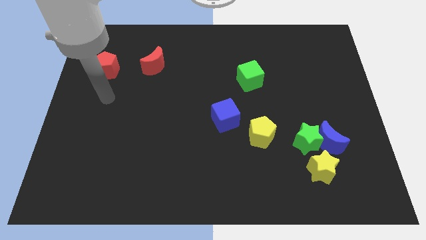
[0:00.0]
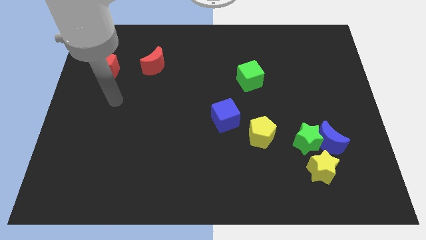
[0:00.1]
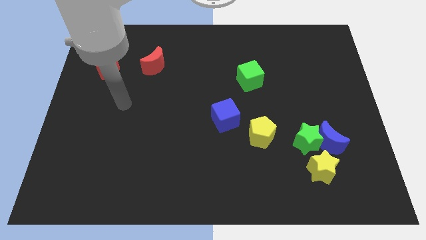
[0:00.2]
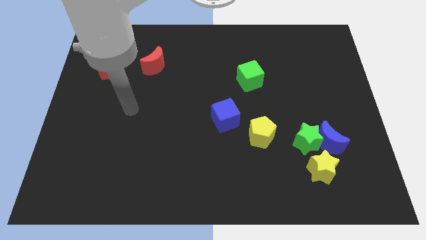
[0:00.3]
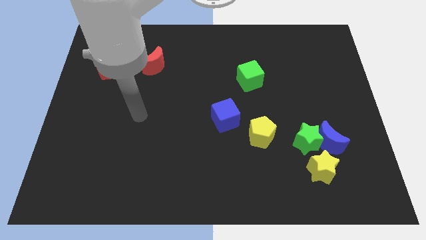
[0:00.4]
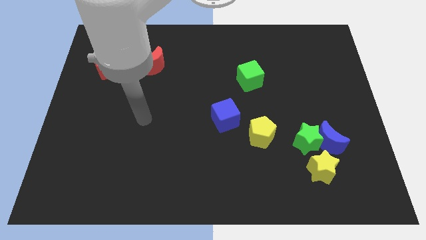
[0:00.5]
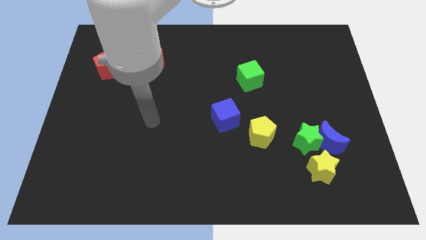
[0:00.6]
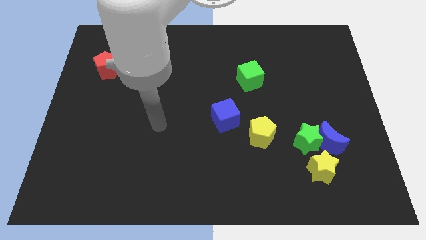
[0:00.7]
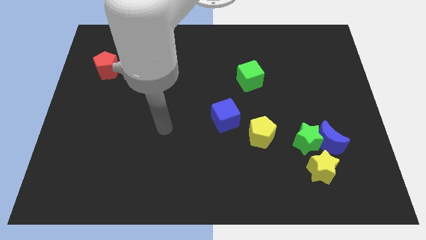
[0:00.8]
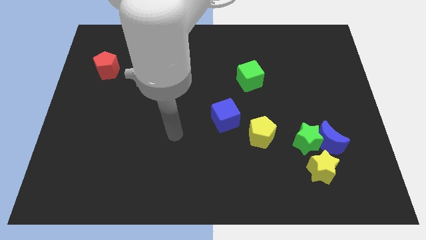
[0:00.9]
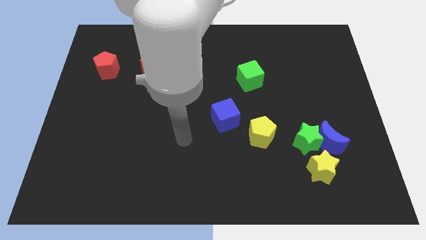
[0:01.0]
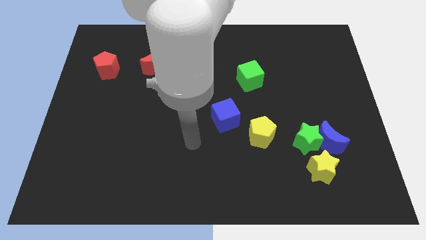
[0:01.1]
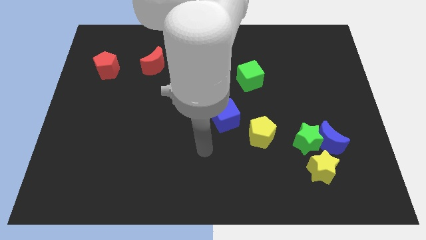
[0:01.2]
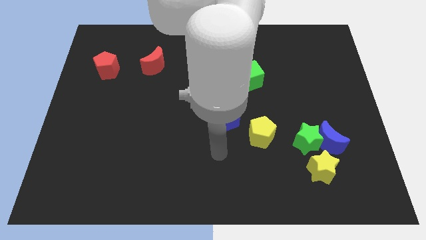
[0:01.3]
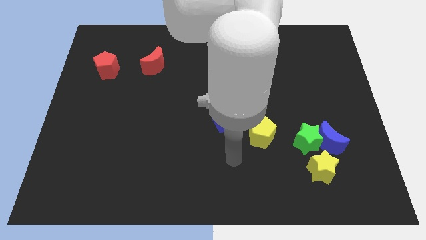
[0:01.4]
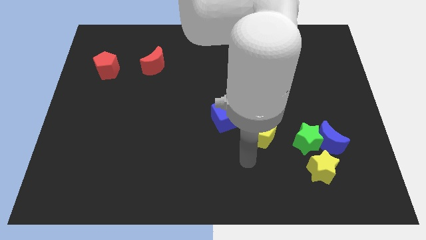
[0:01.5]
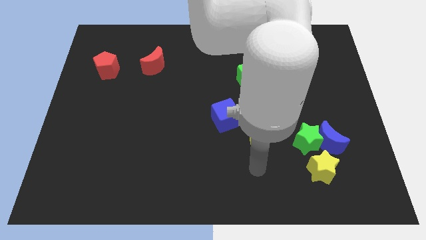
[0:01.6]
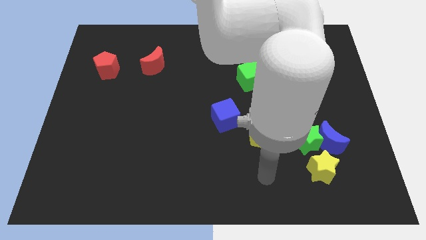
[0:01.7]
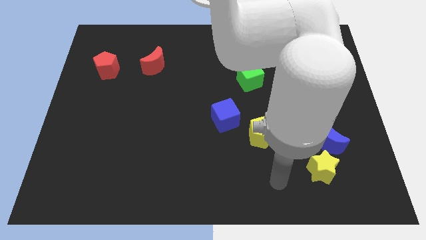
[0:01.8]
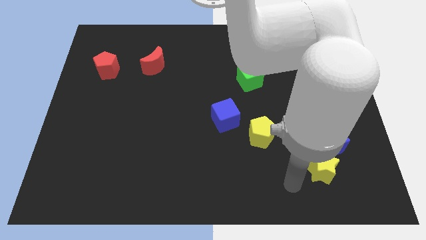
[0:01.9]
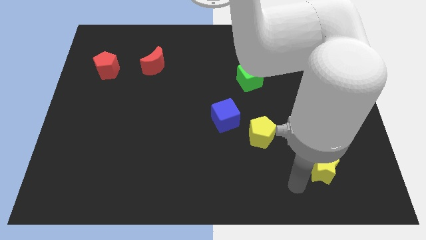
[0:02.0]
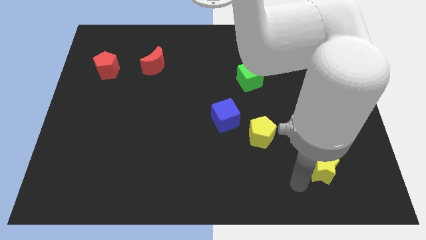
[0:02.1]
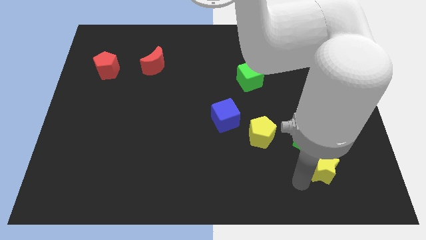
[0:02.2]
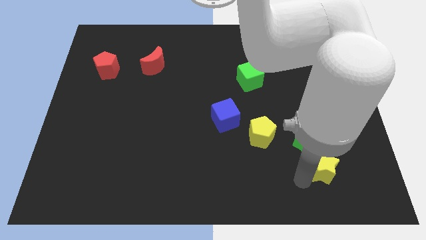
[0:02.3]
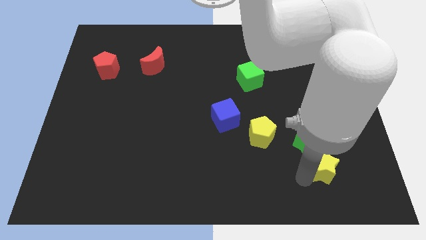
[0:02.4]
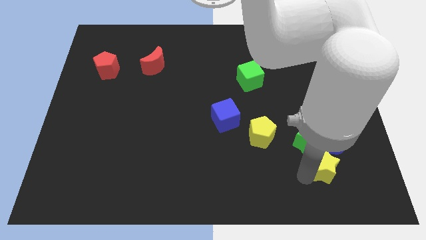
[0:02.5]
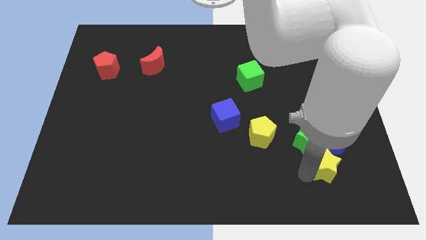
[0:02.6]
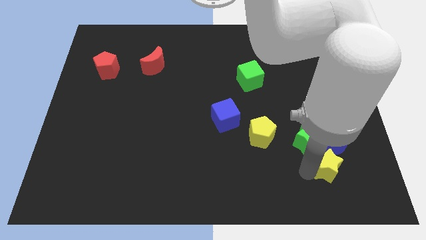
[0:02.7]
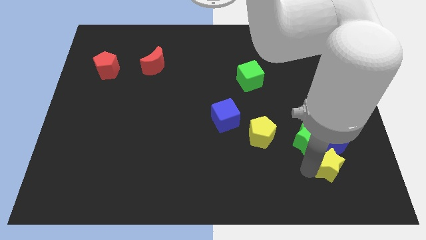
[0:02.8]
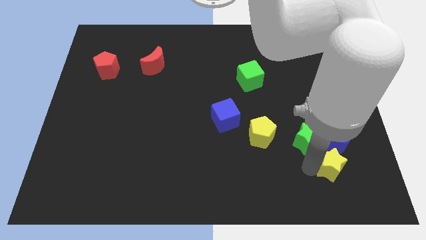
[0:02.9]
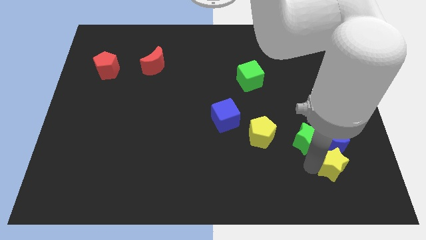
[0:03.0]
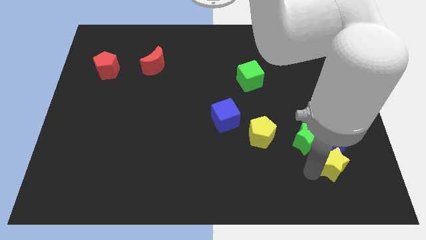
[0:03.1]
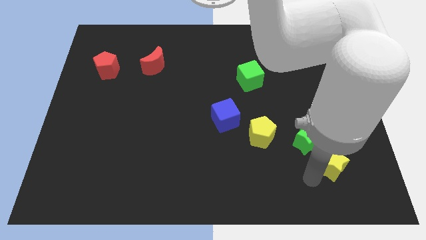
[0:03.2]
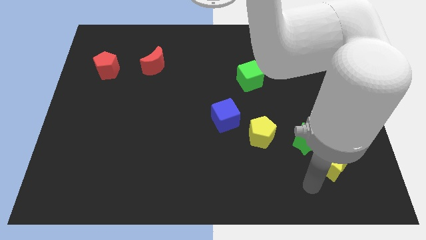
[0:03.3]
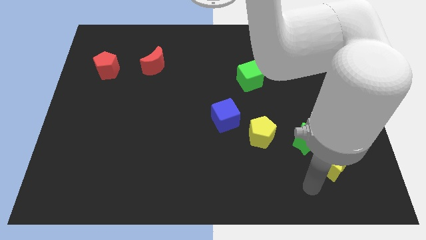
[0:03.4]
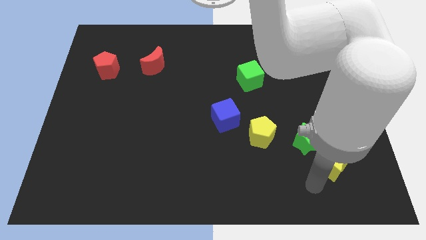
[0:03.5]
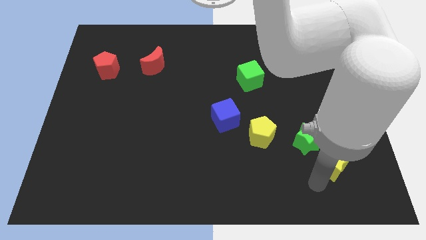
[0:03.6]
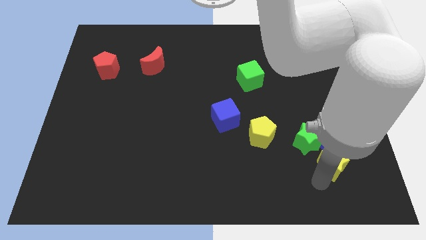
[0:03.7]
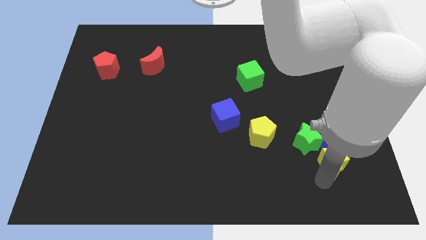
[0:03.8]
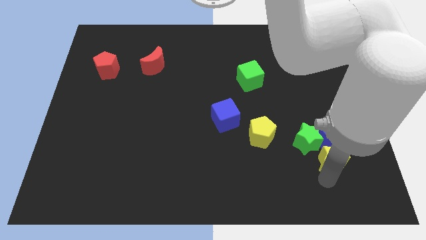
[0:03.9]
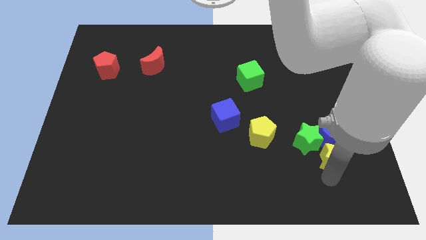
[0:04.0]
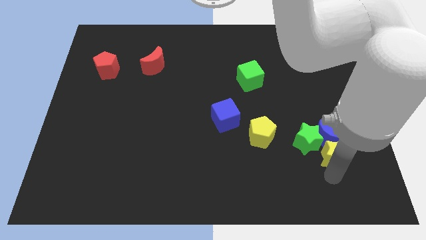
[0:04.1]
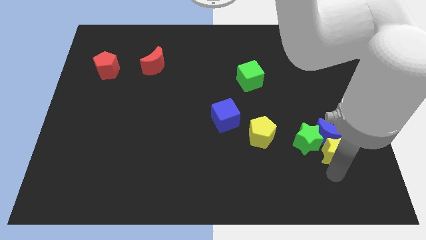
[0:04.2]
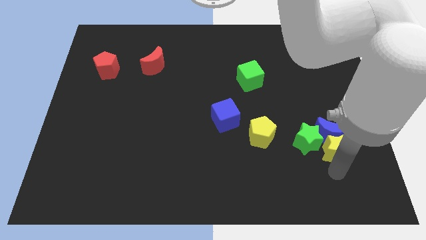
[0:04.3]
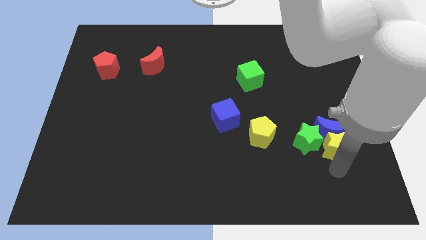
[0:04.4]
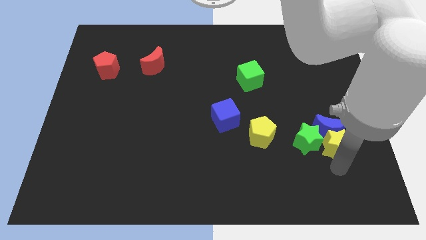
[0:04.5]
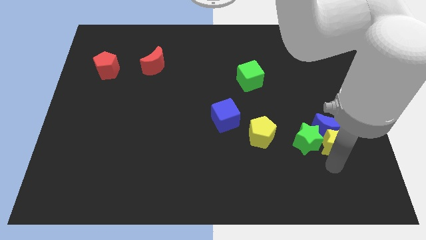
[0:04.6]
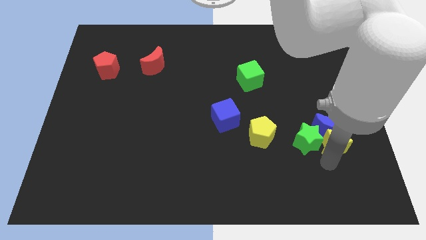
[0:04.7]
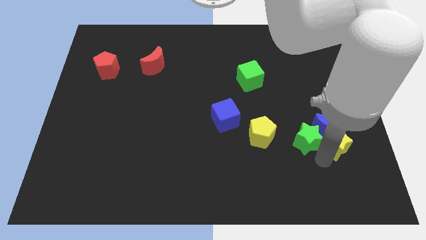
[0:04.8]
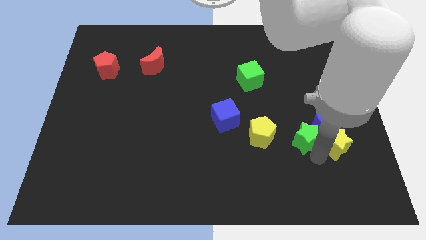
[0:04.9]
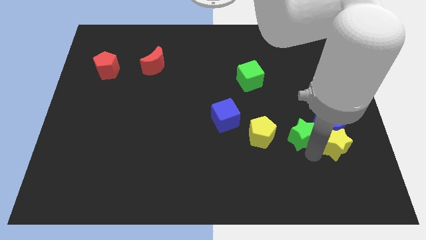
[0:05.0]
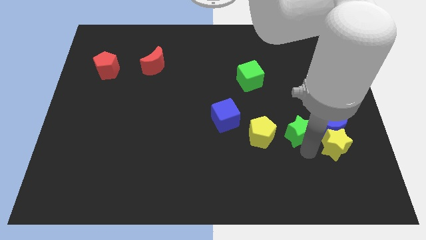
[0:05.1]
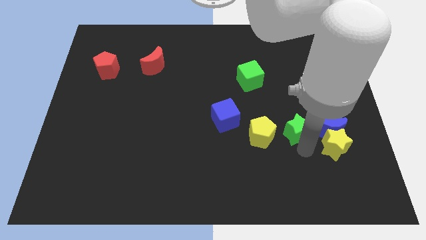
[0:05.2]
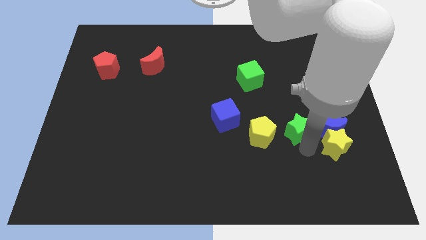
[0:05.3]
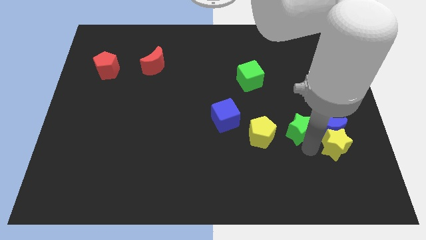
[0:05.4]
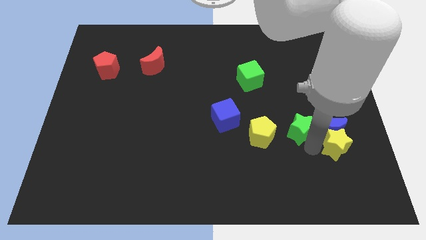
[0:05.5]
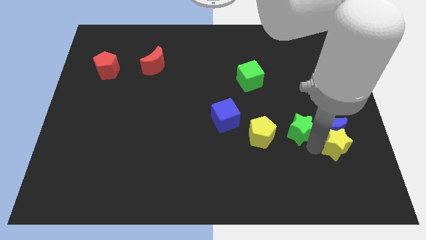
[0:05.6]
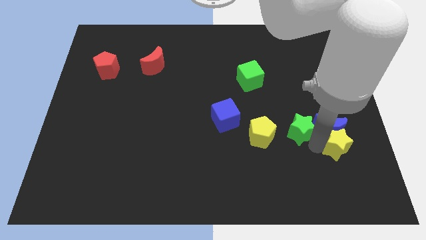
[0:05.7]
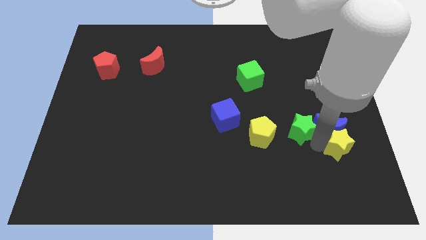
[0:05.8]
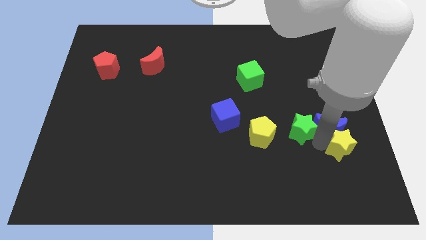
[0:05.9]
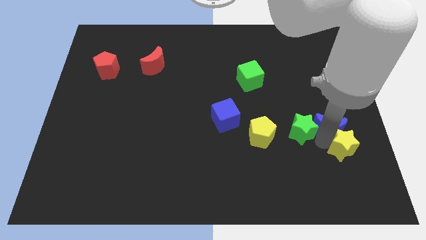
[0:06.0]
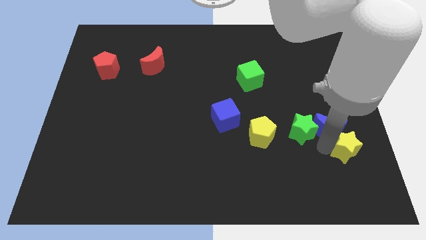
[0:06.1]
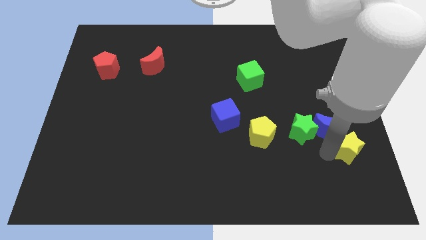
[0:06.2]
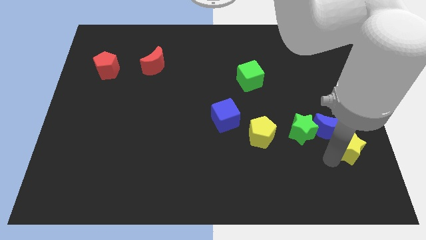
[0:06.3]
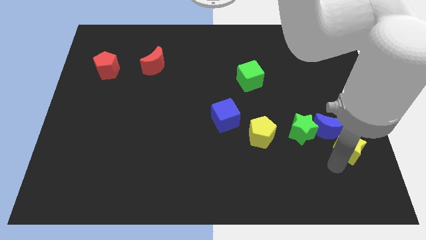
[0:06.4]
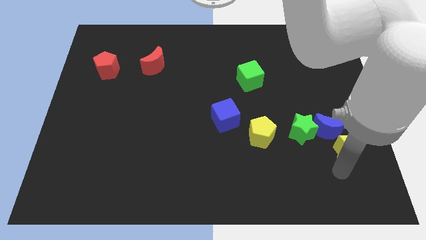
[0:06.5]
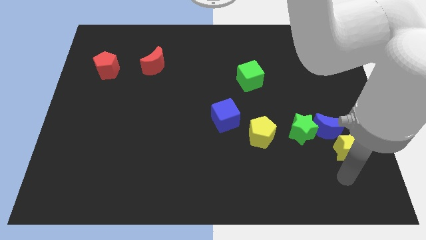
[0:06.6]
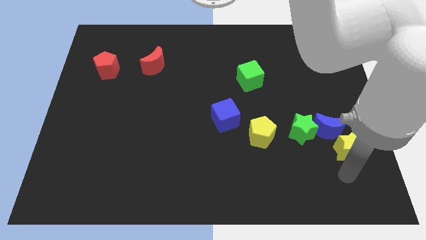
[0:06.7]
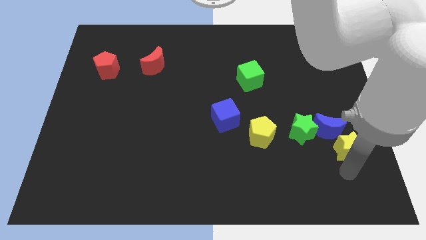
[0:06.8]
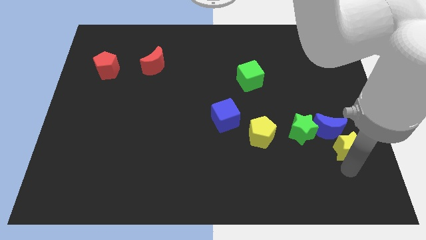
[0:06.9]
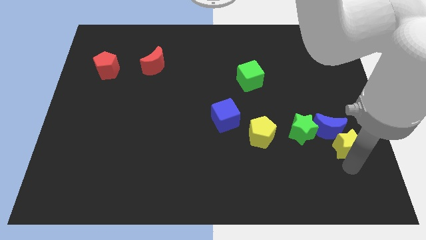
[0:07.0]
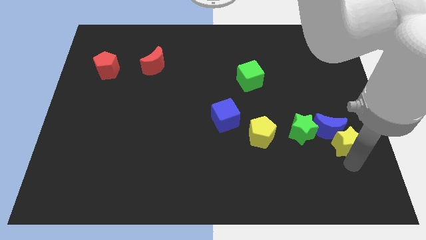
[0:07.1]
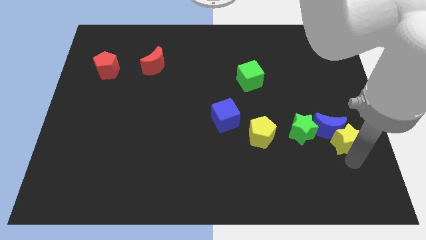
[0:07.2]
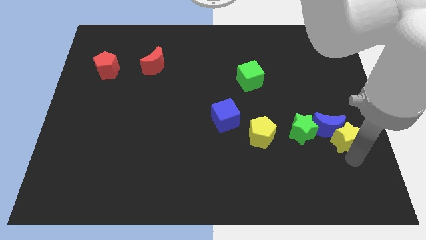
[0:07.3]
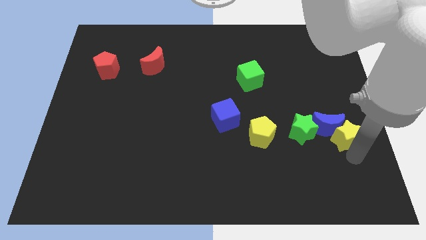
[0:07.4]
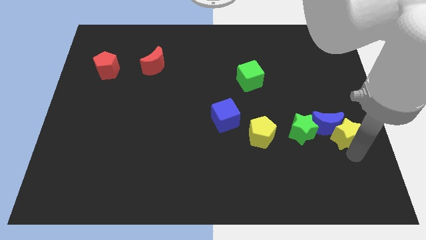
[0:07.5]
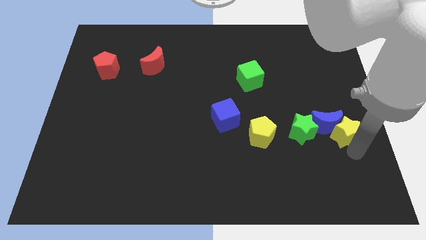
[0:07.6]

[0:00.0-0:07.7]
move the yellow star to the right side

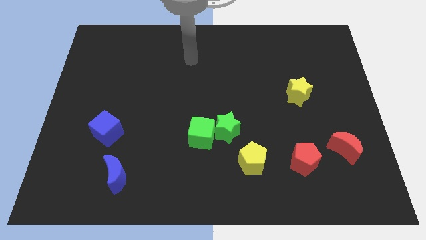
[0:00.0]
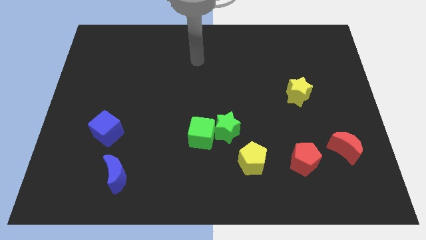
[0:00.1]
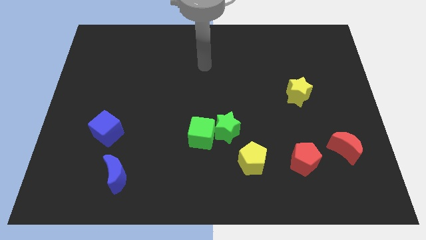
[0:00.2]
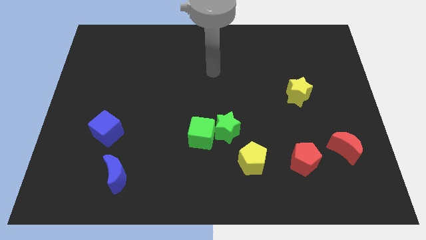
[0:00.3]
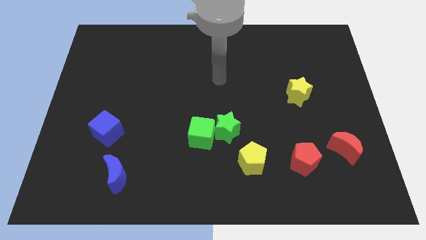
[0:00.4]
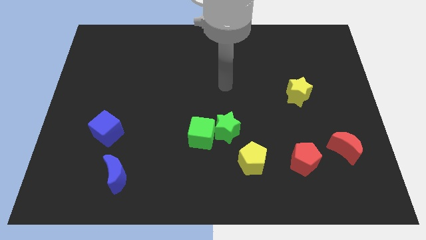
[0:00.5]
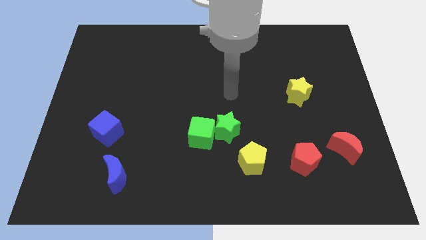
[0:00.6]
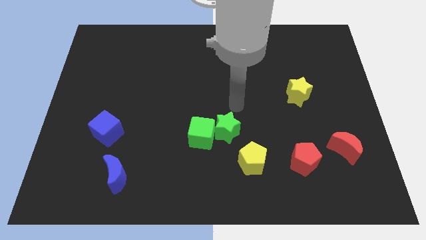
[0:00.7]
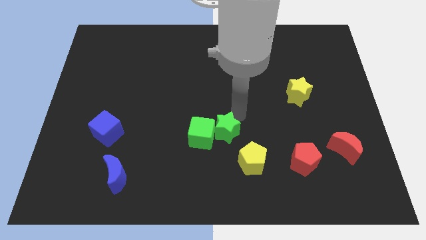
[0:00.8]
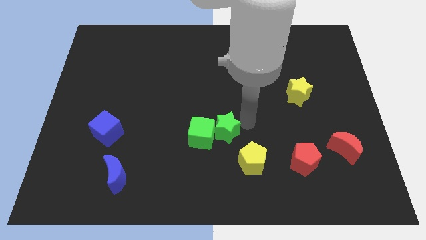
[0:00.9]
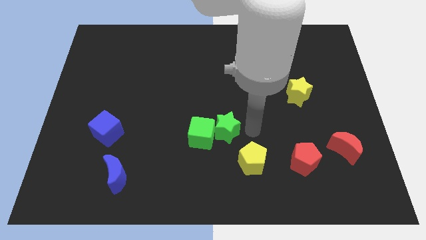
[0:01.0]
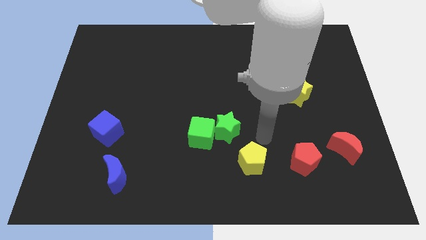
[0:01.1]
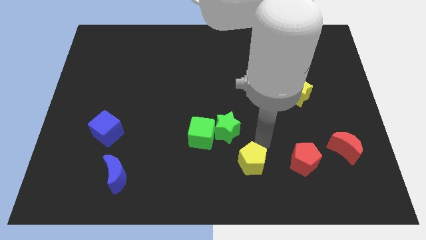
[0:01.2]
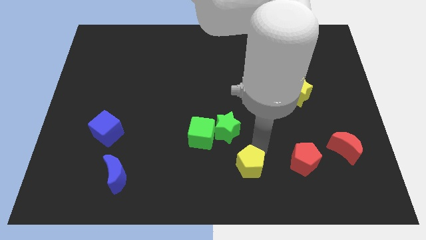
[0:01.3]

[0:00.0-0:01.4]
push the yellow pentagon to the bottom
